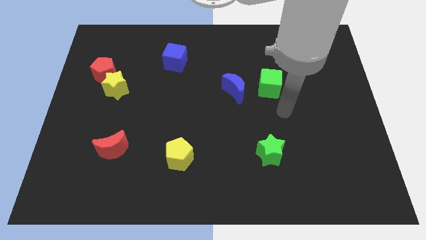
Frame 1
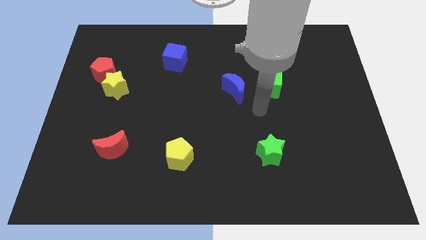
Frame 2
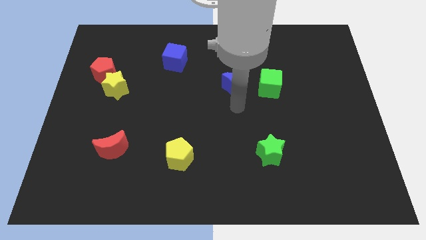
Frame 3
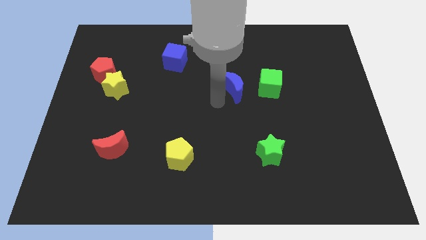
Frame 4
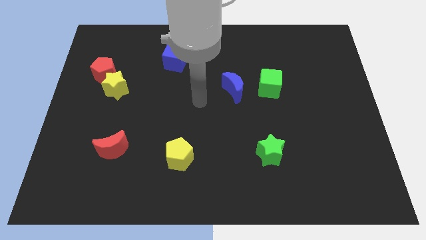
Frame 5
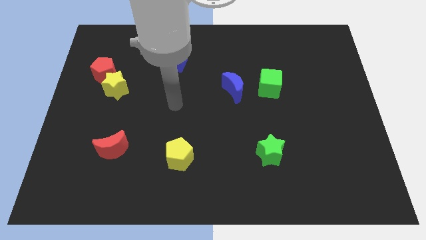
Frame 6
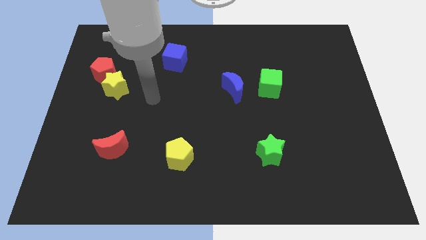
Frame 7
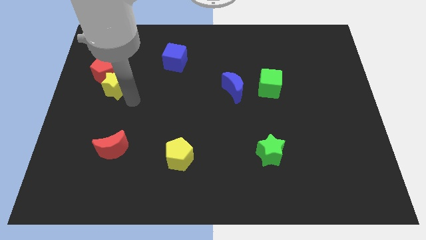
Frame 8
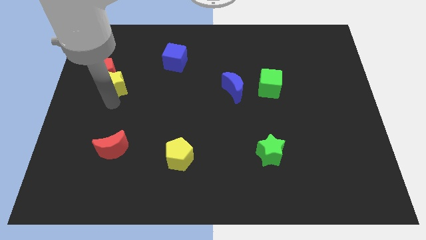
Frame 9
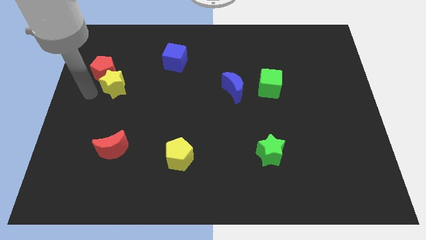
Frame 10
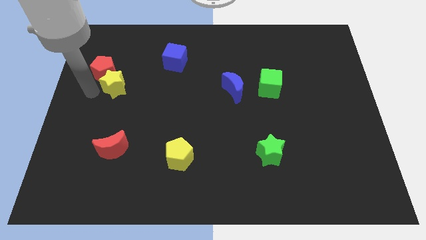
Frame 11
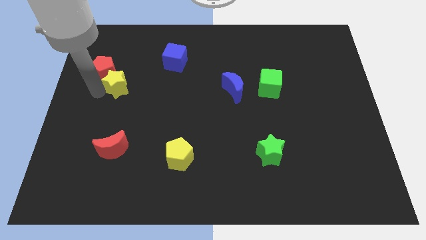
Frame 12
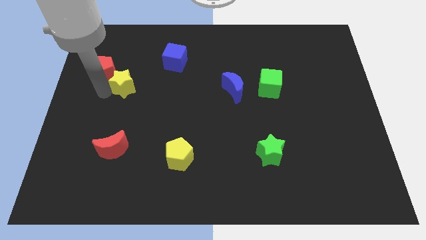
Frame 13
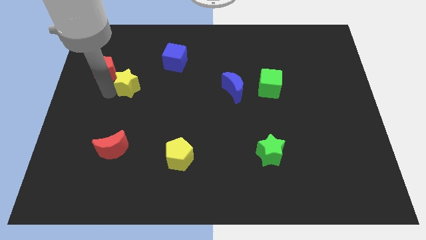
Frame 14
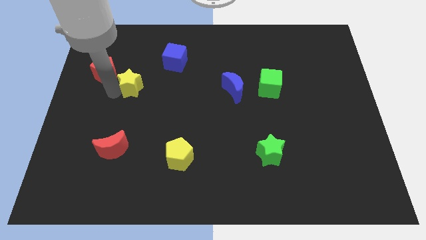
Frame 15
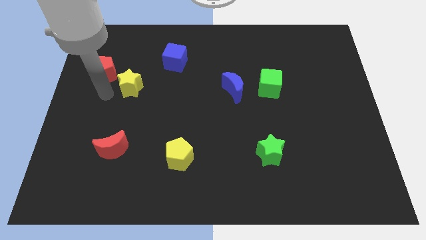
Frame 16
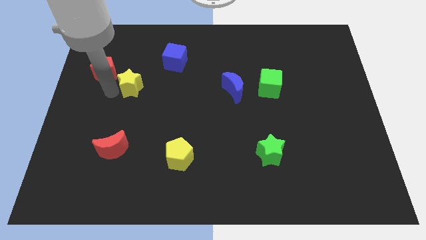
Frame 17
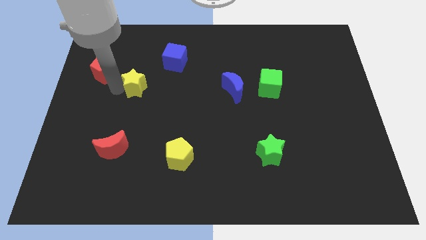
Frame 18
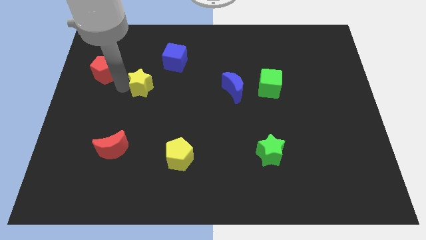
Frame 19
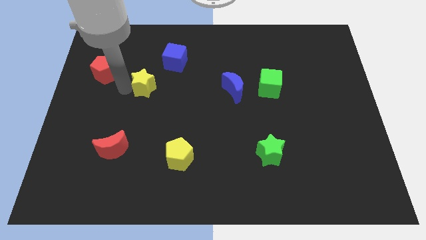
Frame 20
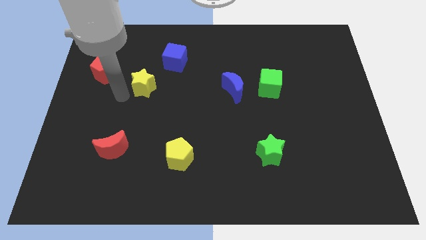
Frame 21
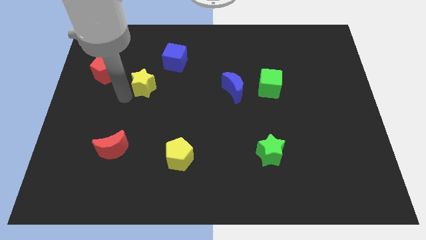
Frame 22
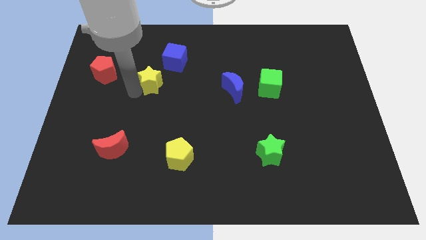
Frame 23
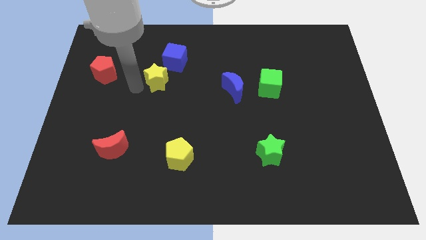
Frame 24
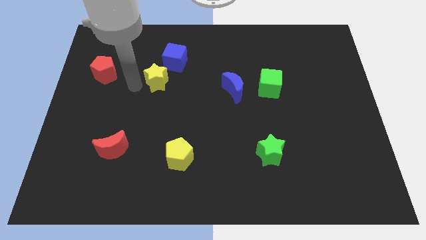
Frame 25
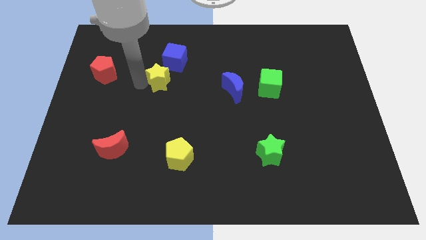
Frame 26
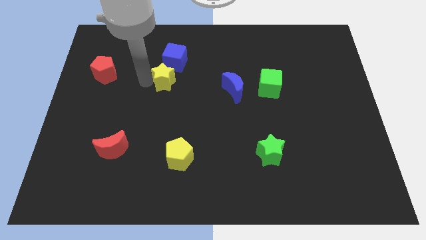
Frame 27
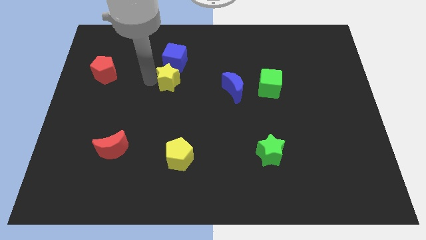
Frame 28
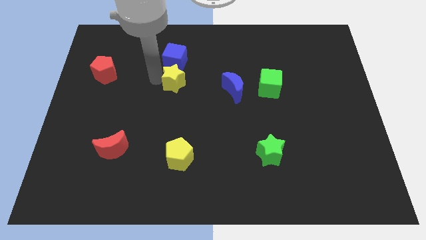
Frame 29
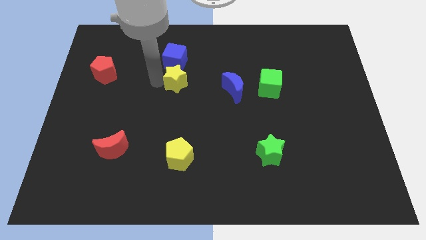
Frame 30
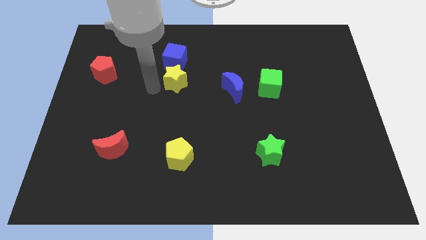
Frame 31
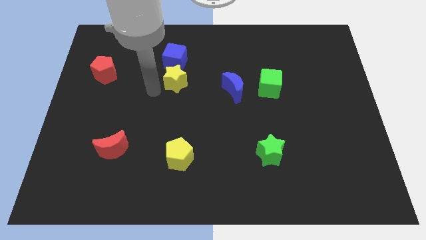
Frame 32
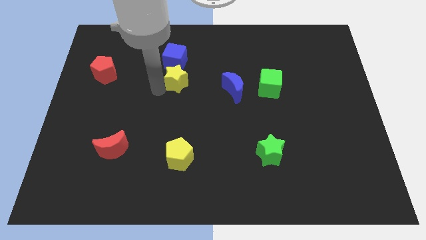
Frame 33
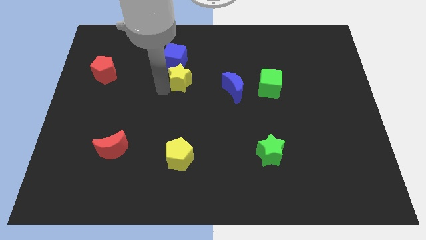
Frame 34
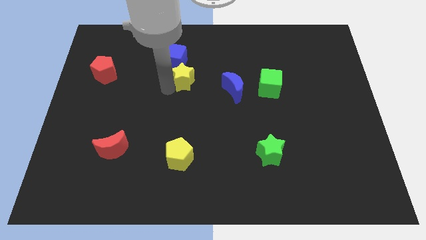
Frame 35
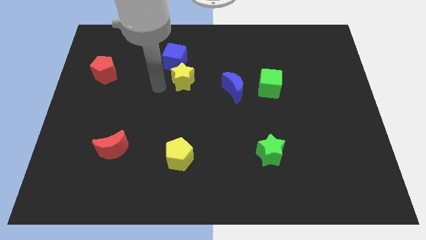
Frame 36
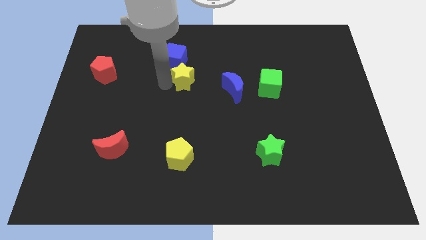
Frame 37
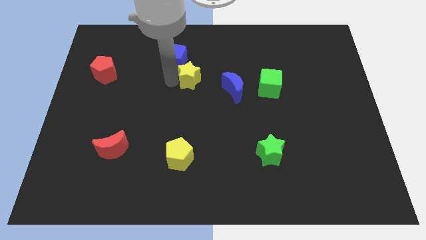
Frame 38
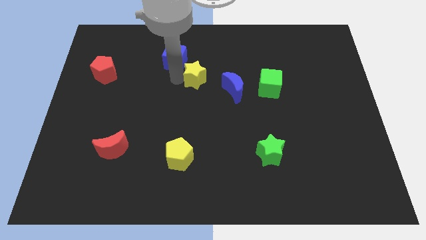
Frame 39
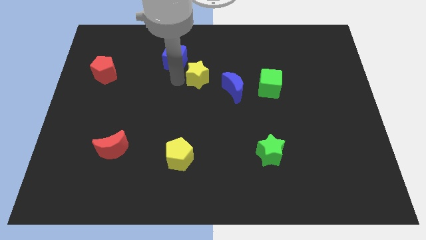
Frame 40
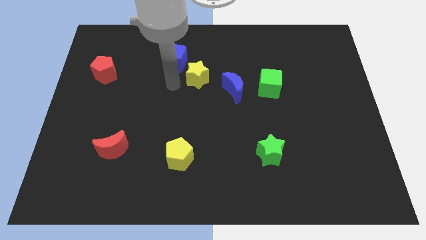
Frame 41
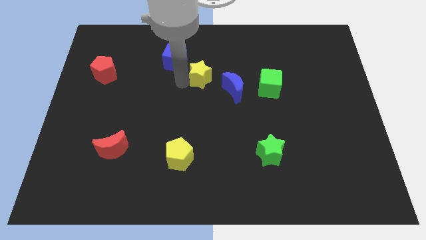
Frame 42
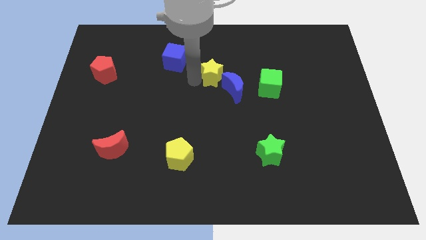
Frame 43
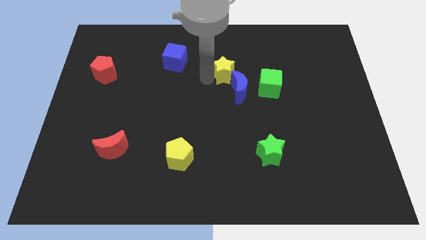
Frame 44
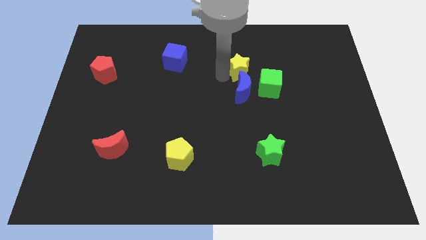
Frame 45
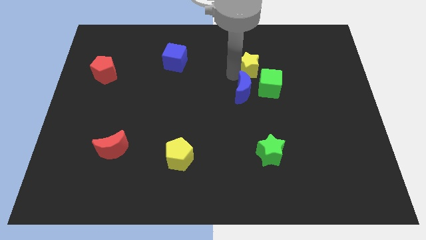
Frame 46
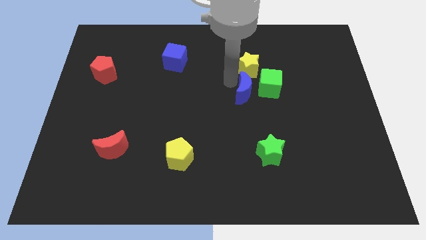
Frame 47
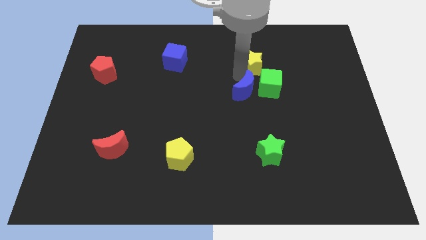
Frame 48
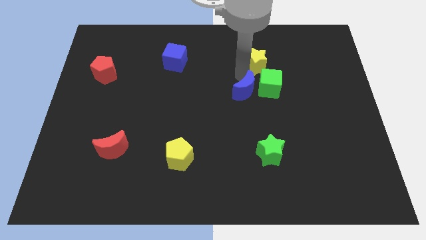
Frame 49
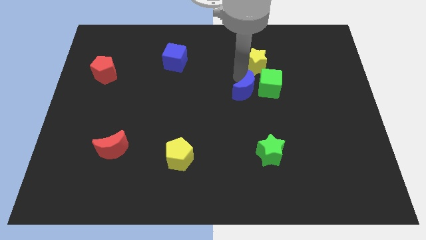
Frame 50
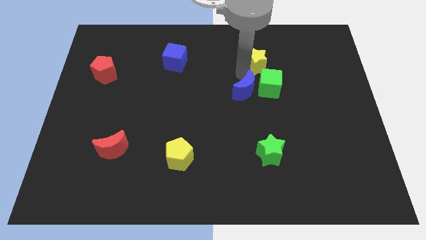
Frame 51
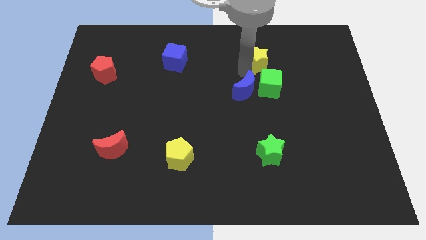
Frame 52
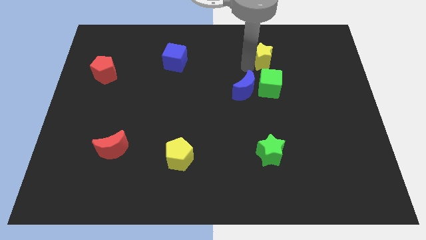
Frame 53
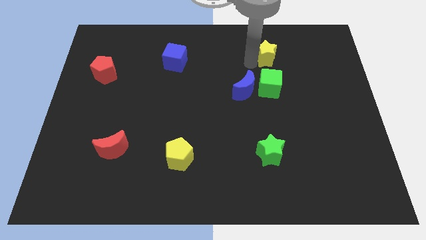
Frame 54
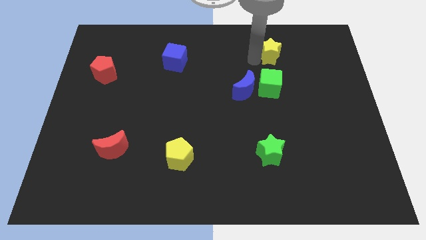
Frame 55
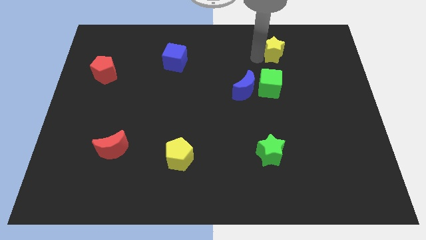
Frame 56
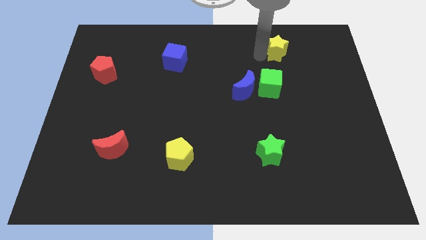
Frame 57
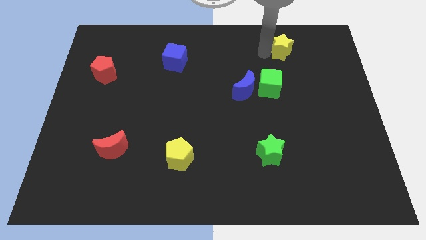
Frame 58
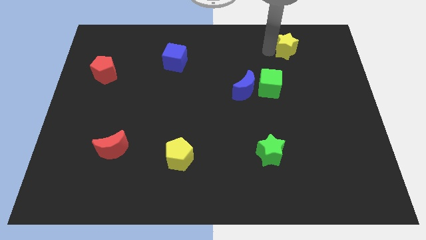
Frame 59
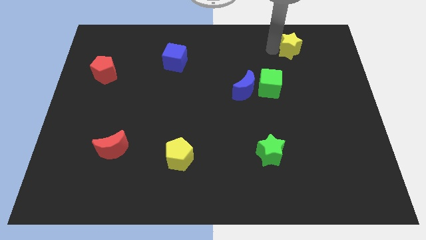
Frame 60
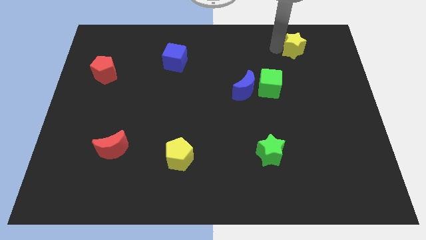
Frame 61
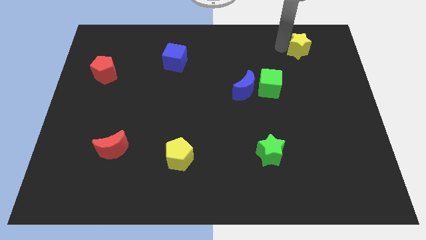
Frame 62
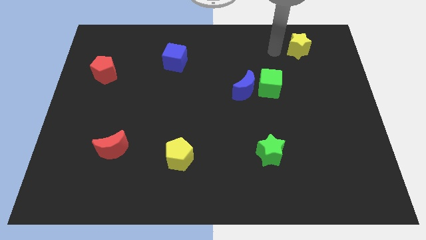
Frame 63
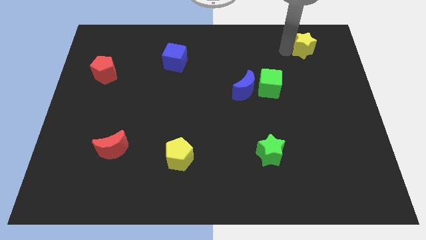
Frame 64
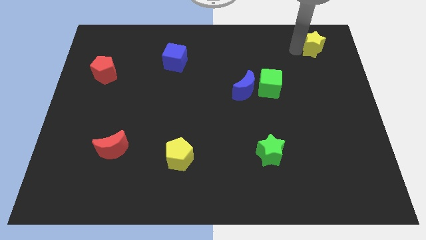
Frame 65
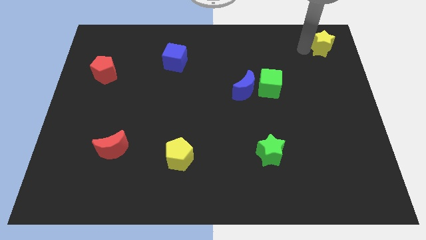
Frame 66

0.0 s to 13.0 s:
push the yellow star to the top right corner
